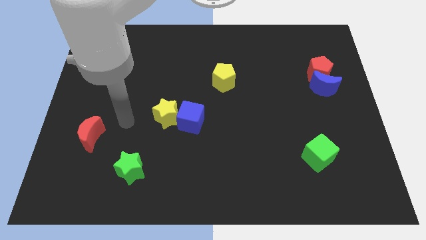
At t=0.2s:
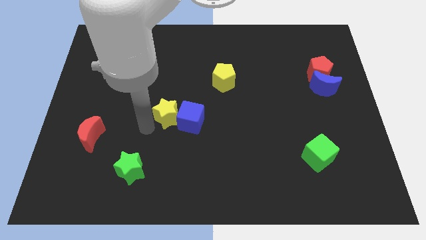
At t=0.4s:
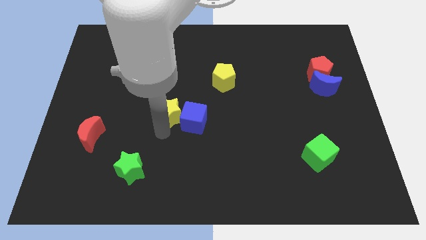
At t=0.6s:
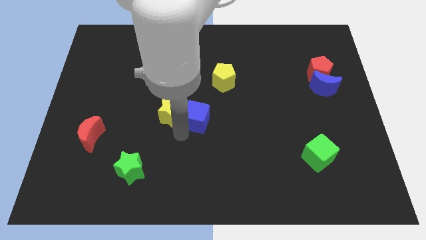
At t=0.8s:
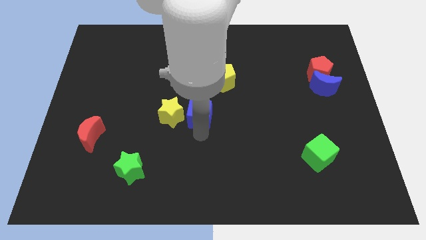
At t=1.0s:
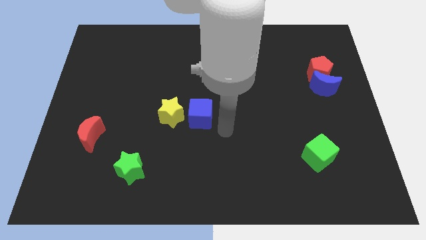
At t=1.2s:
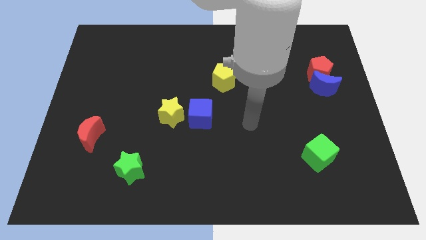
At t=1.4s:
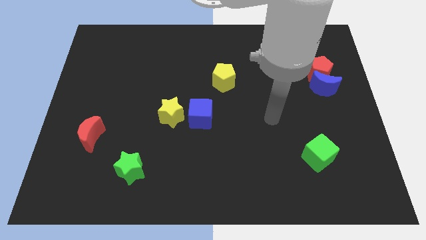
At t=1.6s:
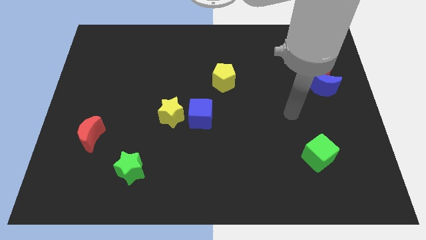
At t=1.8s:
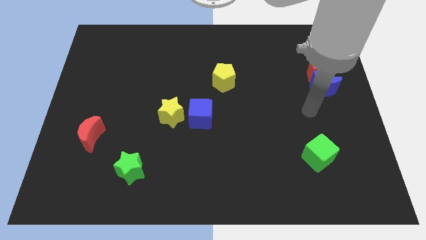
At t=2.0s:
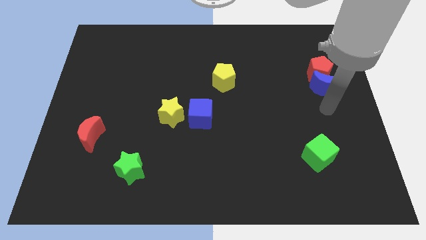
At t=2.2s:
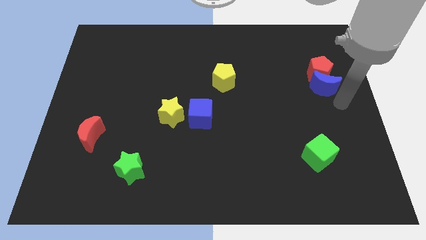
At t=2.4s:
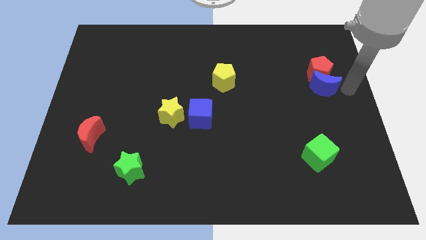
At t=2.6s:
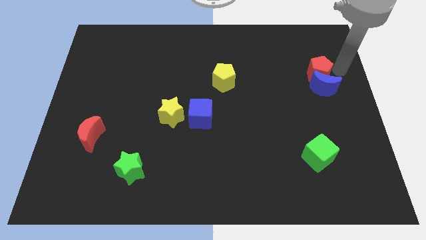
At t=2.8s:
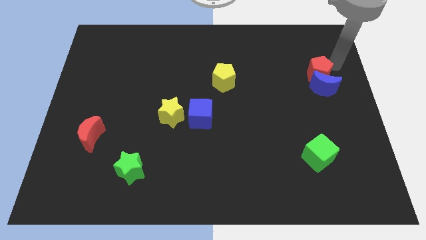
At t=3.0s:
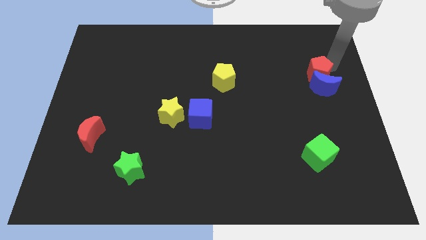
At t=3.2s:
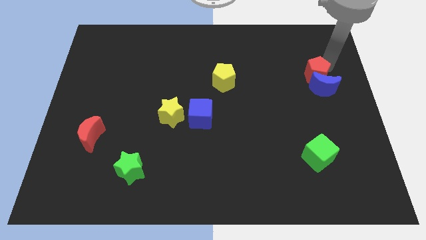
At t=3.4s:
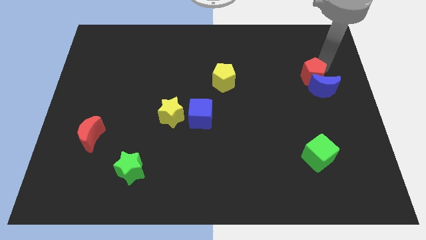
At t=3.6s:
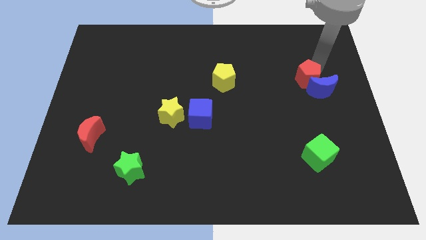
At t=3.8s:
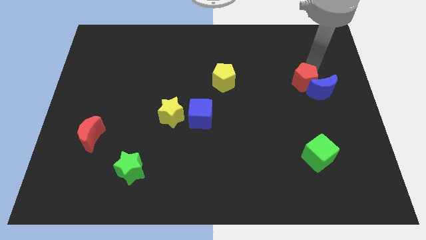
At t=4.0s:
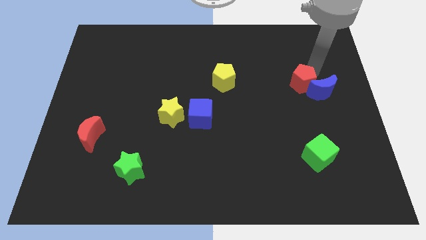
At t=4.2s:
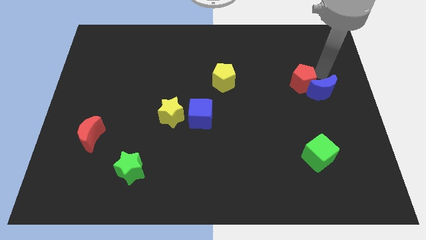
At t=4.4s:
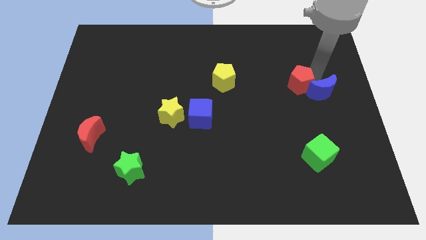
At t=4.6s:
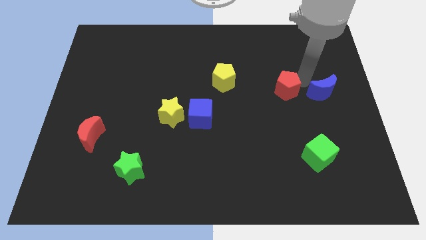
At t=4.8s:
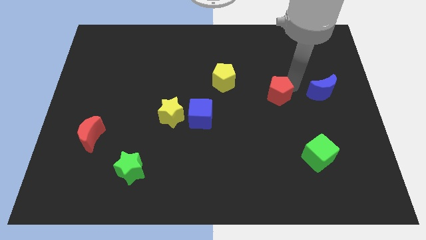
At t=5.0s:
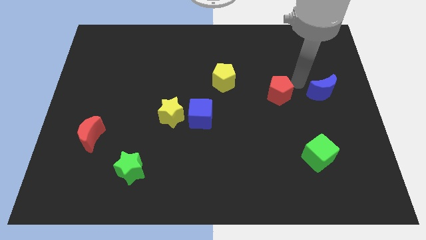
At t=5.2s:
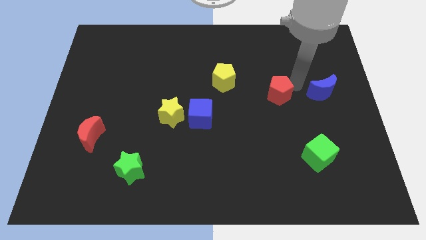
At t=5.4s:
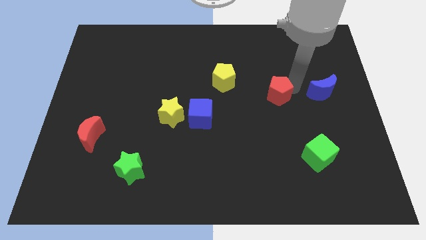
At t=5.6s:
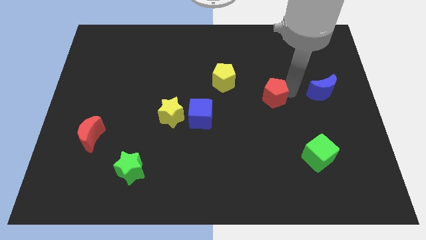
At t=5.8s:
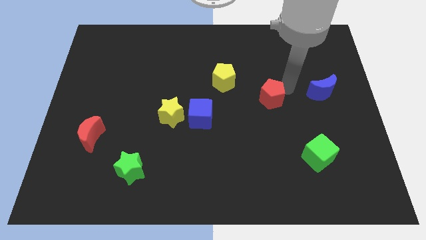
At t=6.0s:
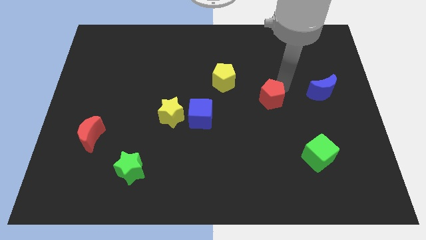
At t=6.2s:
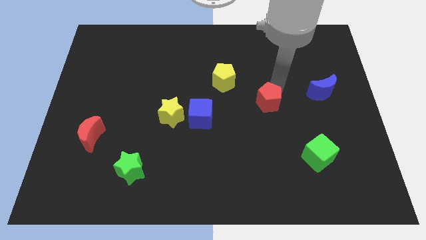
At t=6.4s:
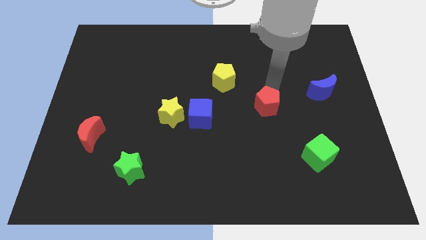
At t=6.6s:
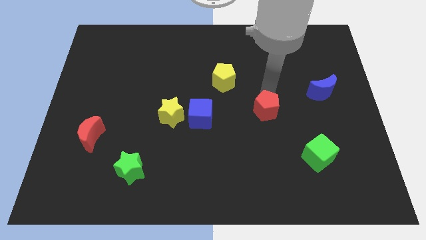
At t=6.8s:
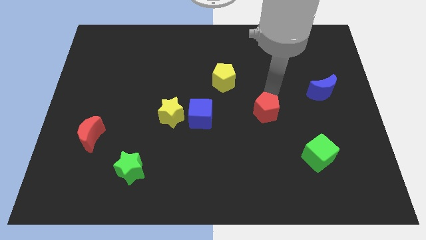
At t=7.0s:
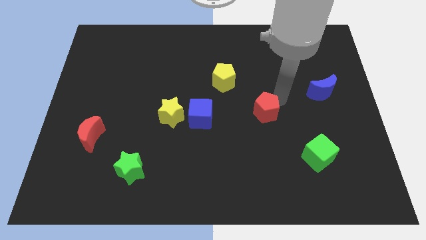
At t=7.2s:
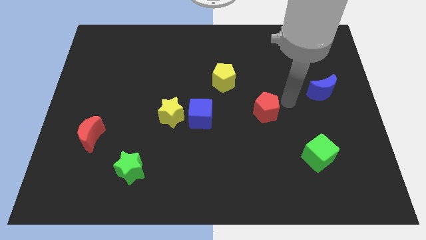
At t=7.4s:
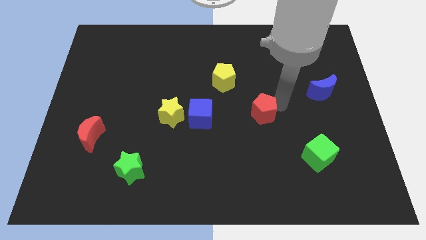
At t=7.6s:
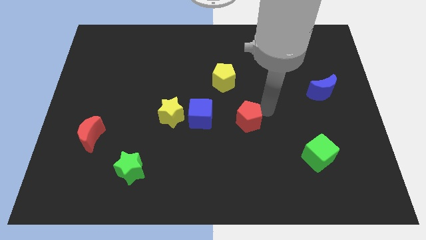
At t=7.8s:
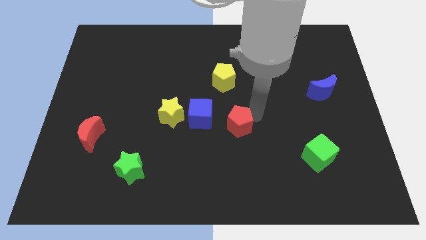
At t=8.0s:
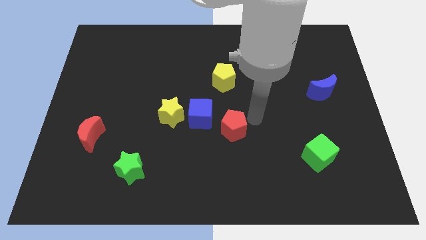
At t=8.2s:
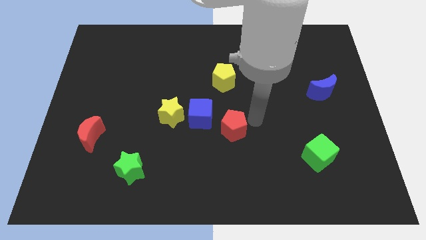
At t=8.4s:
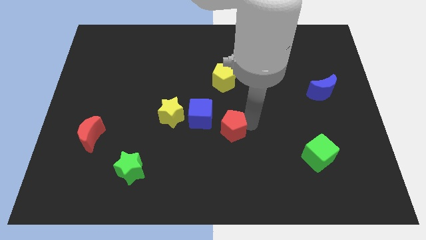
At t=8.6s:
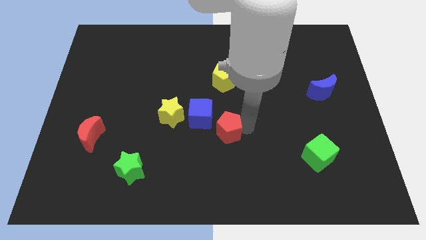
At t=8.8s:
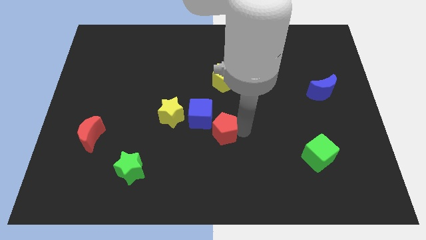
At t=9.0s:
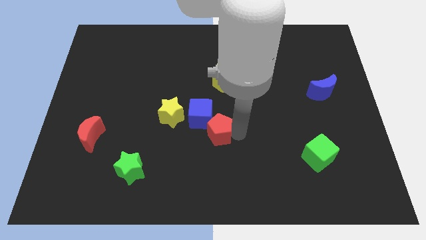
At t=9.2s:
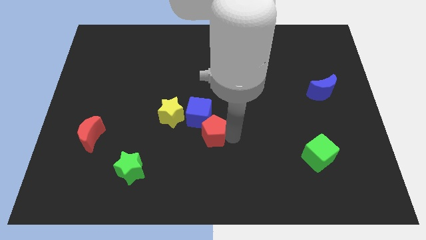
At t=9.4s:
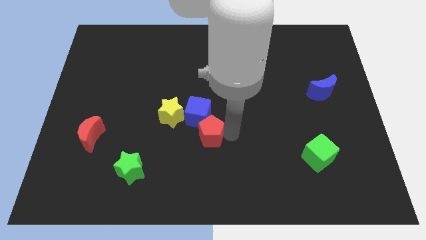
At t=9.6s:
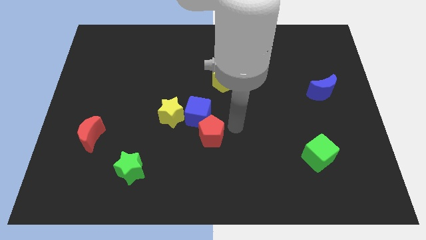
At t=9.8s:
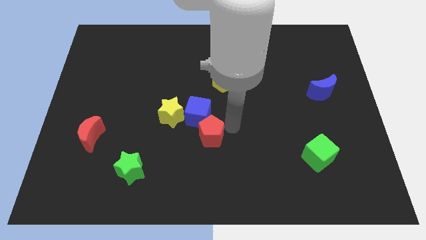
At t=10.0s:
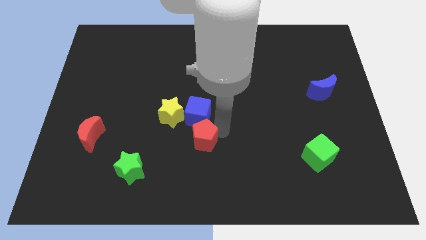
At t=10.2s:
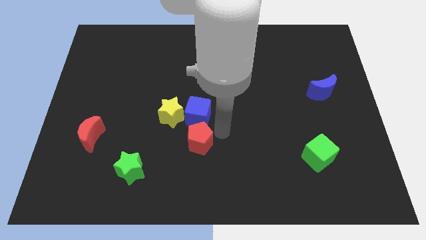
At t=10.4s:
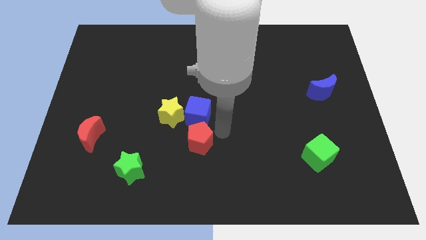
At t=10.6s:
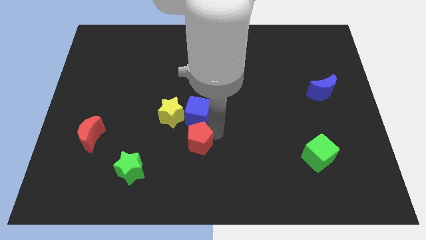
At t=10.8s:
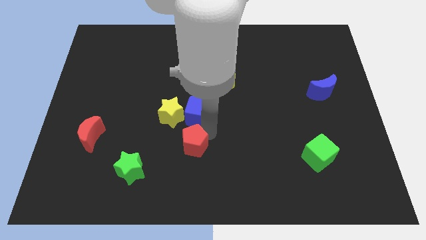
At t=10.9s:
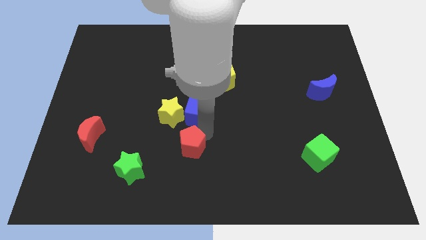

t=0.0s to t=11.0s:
move the red pentagon to the bottom of the yellow star

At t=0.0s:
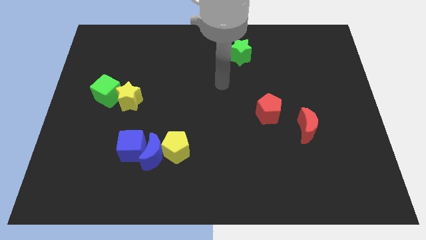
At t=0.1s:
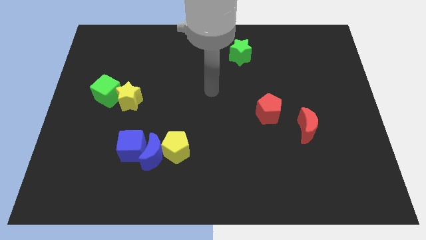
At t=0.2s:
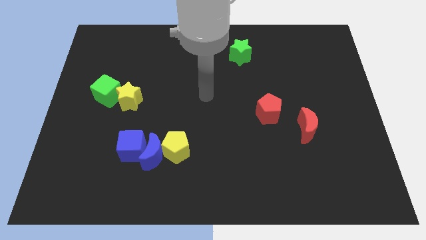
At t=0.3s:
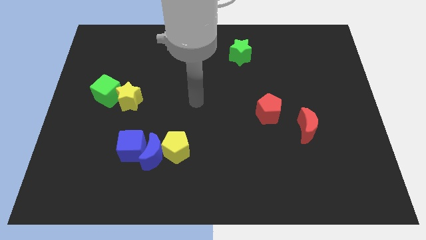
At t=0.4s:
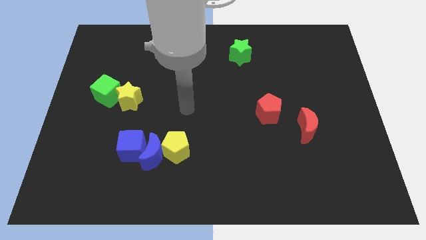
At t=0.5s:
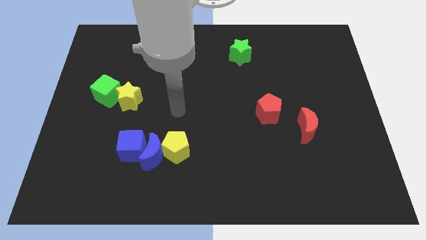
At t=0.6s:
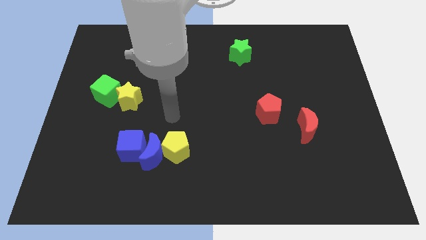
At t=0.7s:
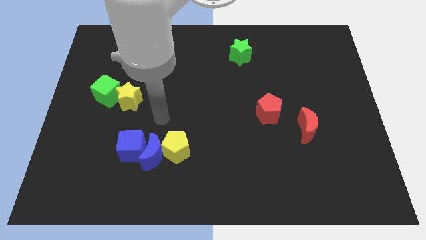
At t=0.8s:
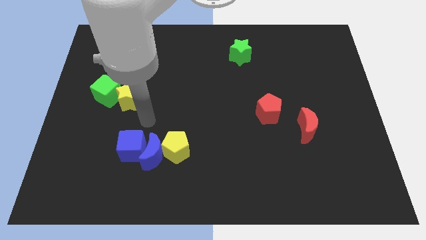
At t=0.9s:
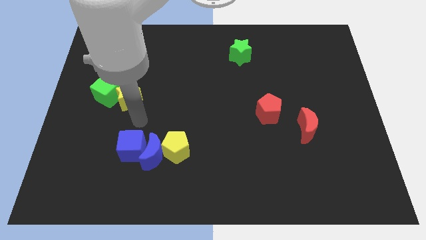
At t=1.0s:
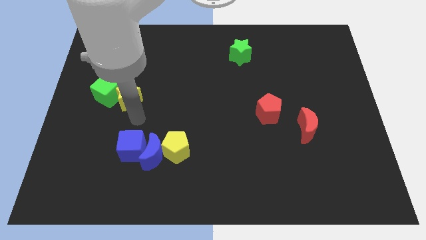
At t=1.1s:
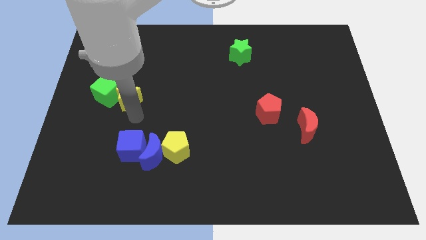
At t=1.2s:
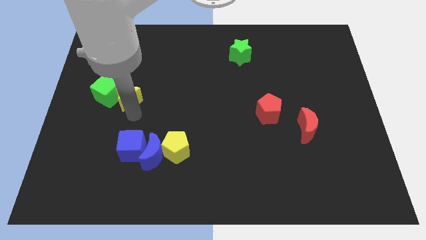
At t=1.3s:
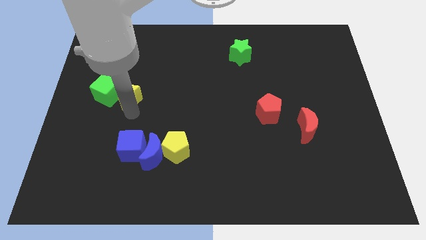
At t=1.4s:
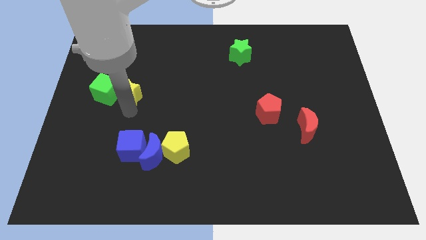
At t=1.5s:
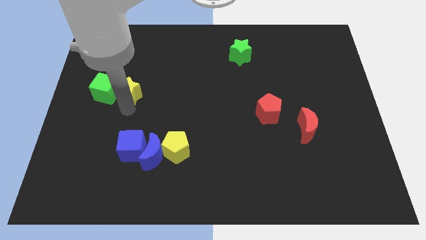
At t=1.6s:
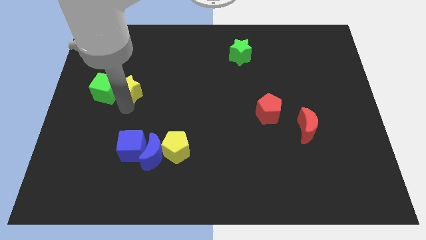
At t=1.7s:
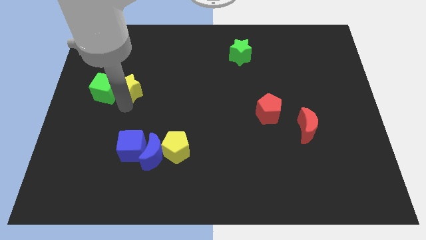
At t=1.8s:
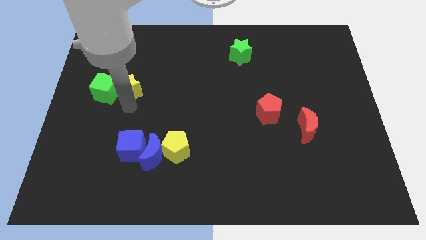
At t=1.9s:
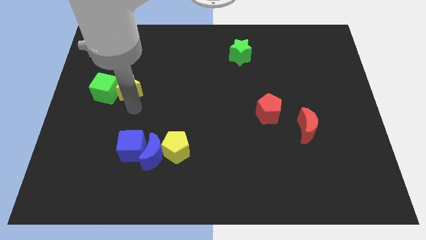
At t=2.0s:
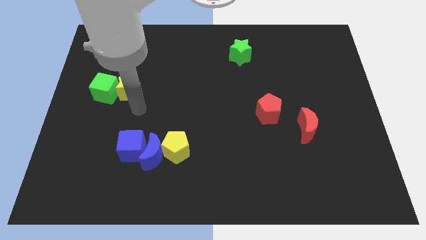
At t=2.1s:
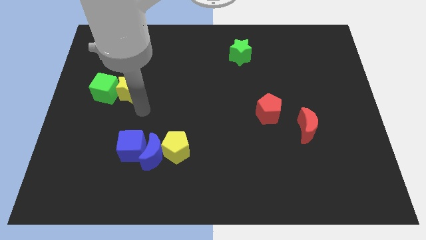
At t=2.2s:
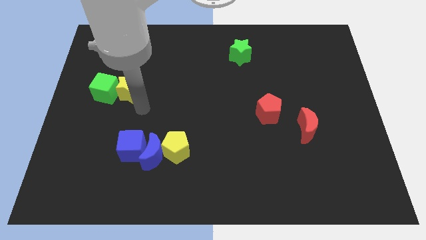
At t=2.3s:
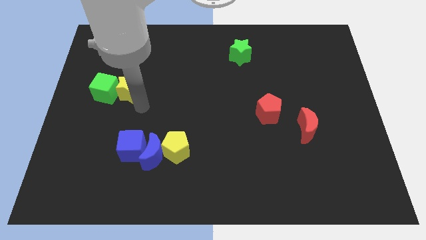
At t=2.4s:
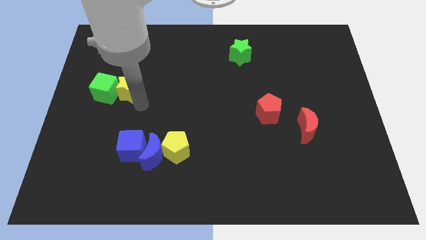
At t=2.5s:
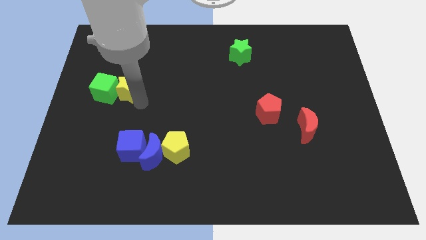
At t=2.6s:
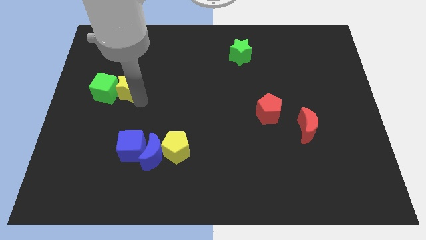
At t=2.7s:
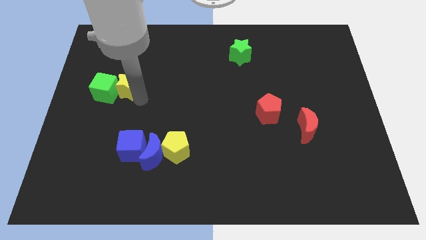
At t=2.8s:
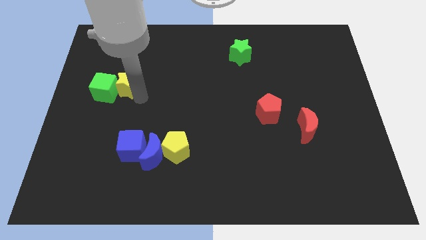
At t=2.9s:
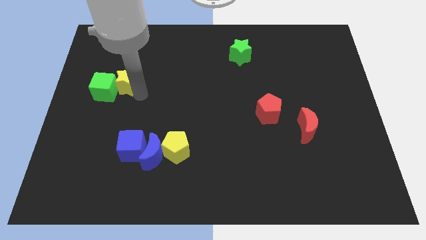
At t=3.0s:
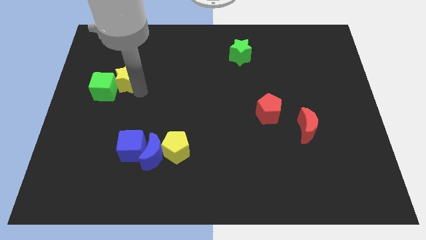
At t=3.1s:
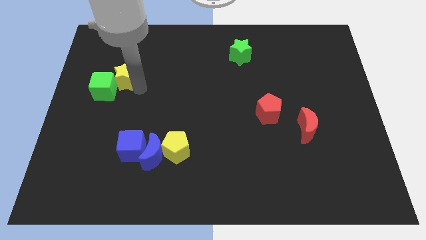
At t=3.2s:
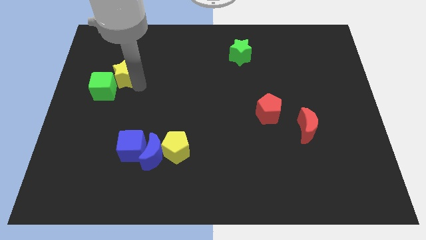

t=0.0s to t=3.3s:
move the yellow star above the green cube
